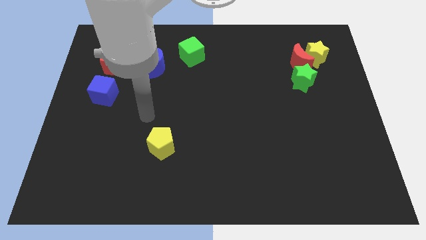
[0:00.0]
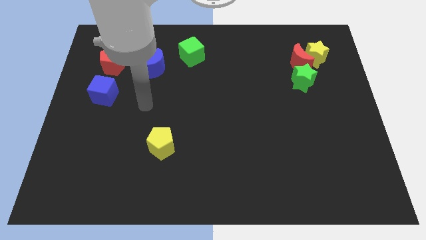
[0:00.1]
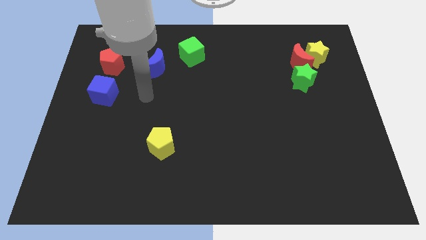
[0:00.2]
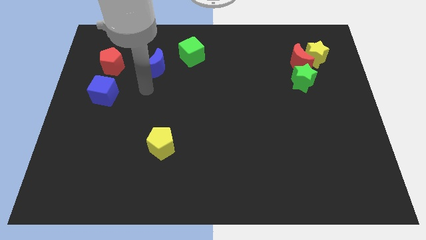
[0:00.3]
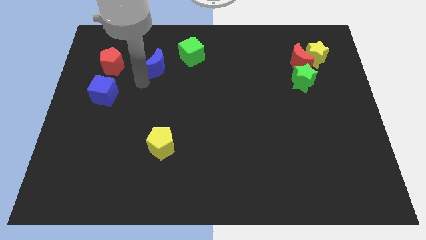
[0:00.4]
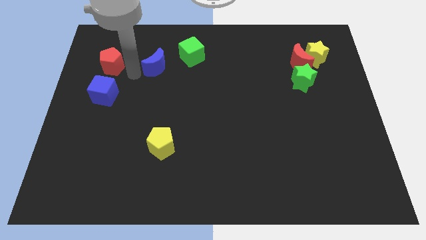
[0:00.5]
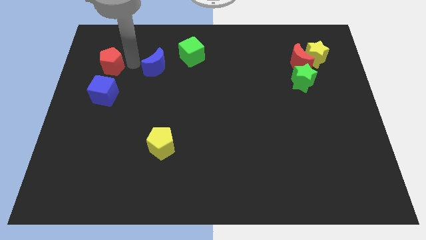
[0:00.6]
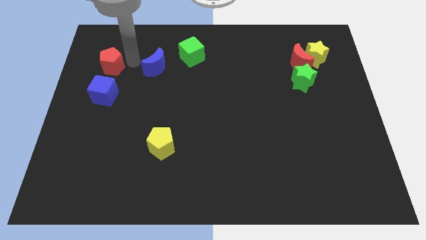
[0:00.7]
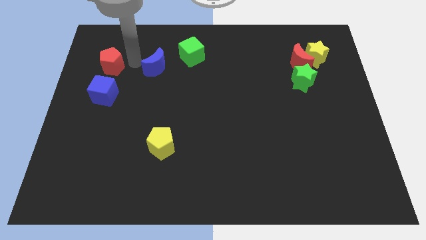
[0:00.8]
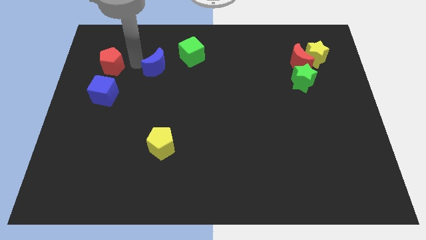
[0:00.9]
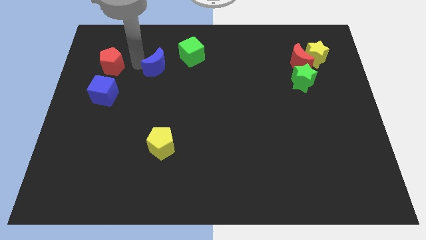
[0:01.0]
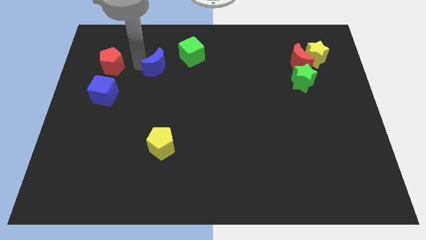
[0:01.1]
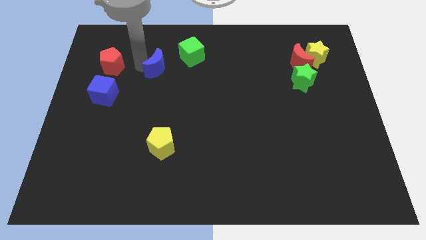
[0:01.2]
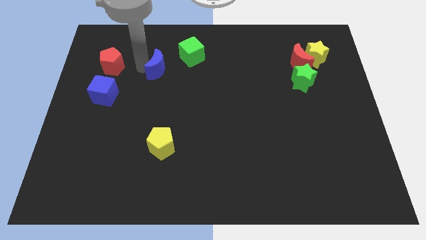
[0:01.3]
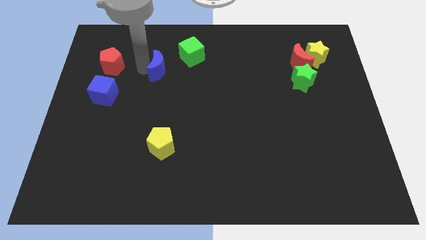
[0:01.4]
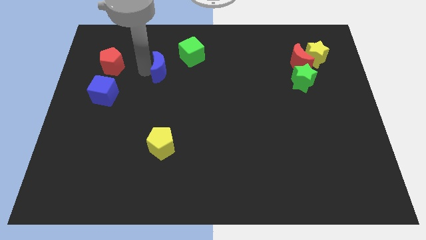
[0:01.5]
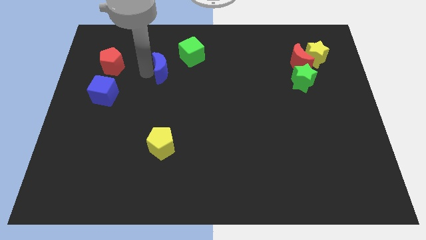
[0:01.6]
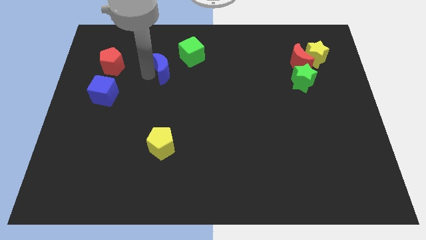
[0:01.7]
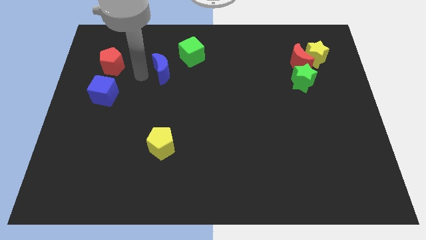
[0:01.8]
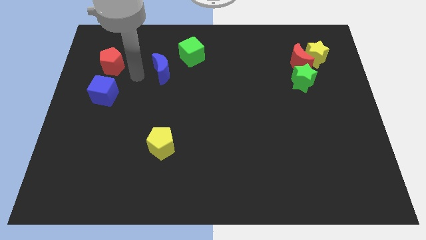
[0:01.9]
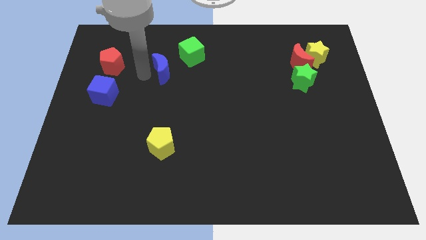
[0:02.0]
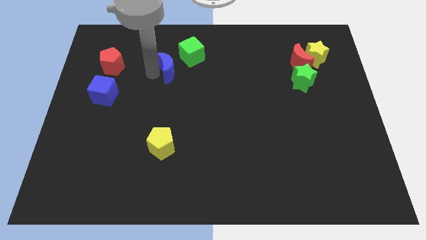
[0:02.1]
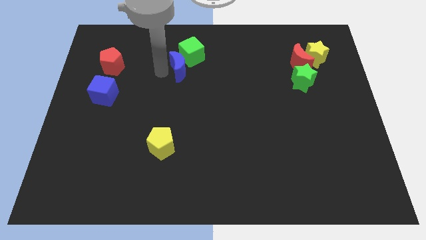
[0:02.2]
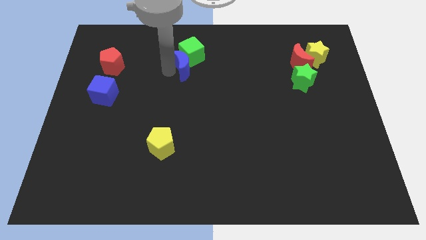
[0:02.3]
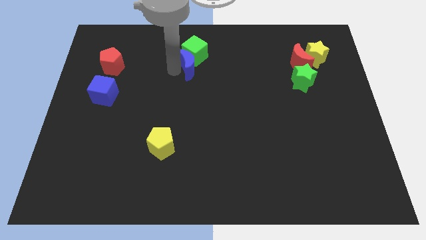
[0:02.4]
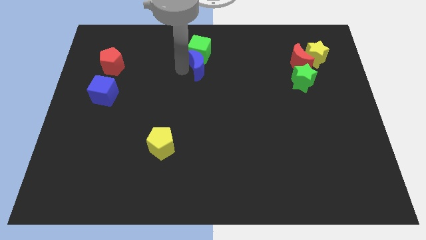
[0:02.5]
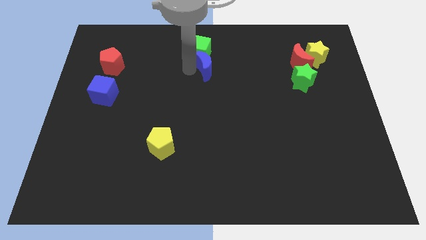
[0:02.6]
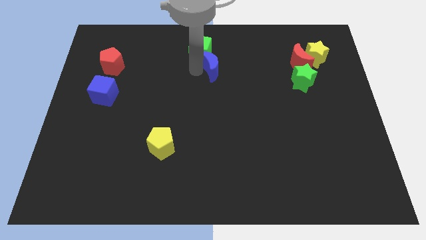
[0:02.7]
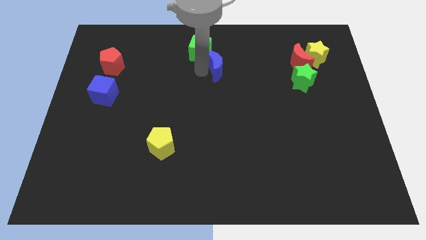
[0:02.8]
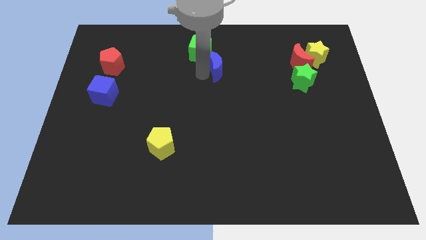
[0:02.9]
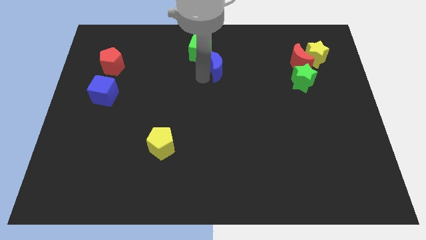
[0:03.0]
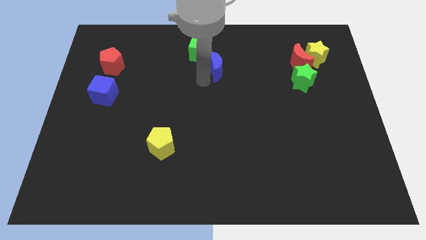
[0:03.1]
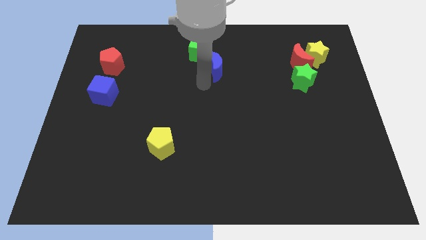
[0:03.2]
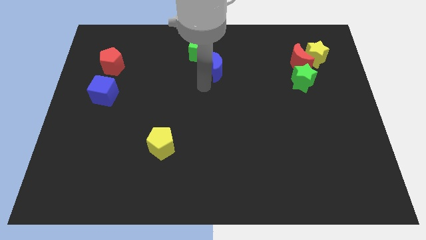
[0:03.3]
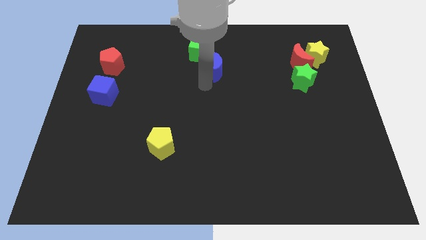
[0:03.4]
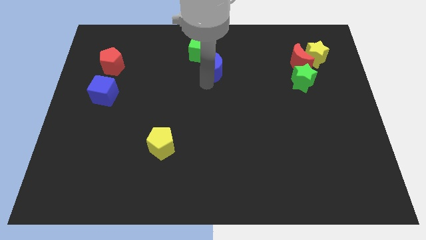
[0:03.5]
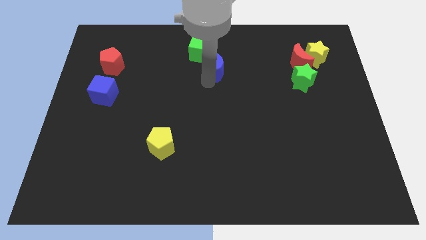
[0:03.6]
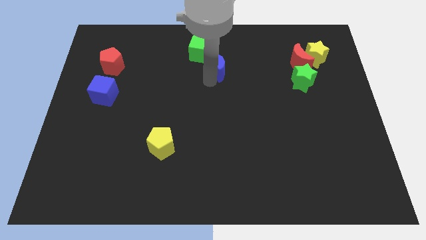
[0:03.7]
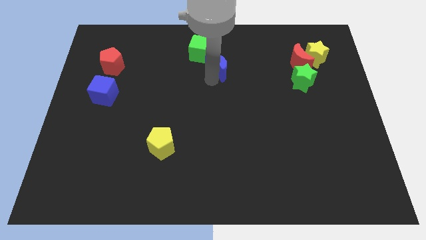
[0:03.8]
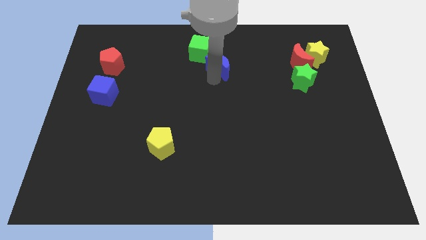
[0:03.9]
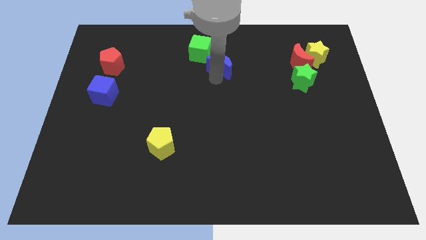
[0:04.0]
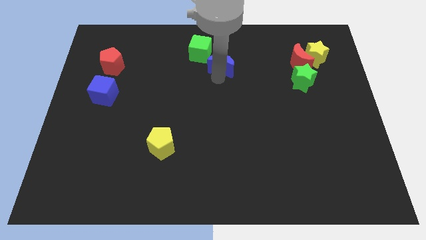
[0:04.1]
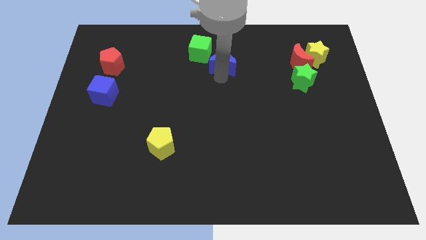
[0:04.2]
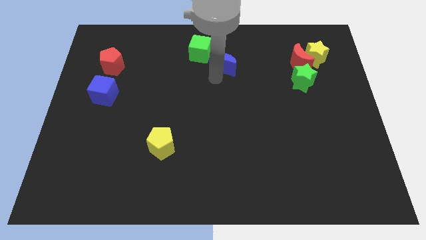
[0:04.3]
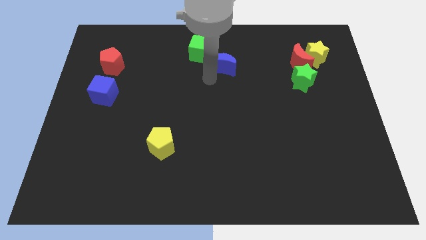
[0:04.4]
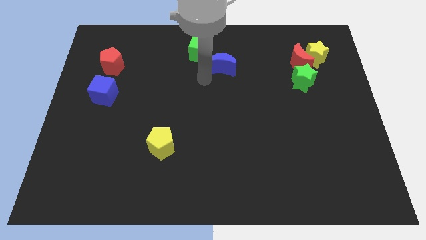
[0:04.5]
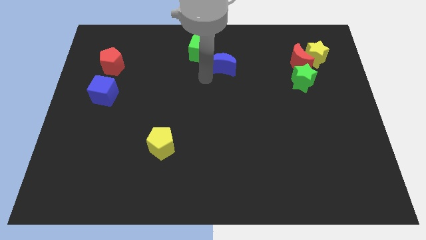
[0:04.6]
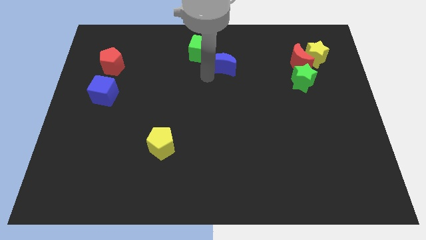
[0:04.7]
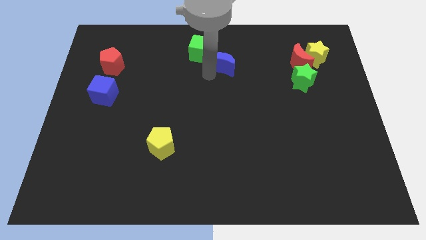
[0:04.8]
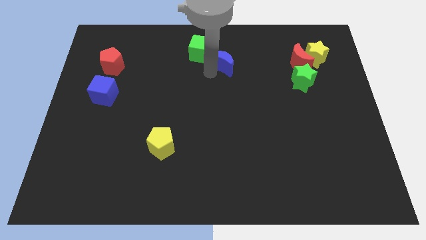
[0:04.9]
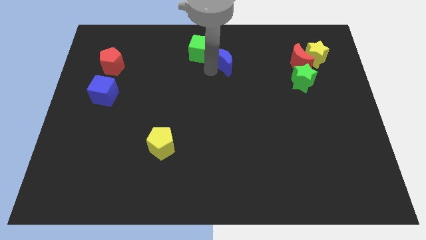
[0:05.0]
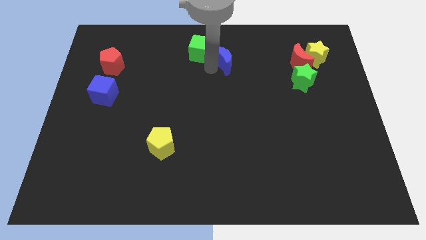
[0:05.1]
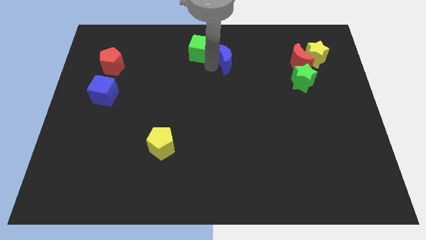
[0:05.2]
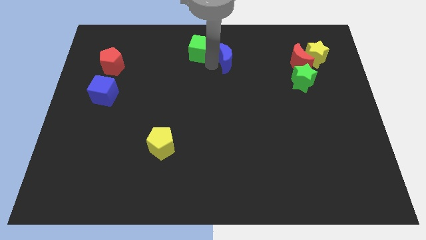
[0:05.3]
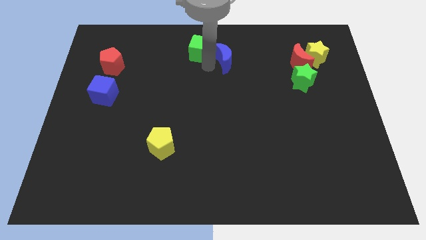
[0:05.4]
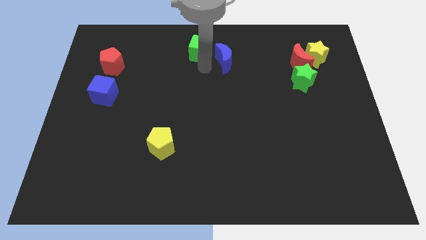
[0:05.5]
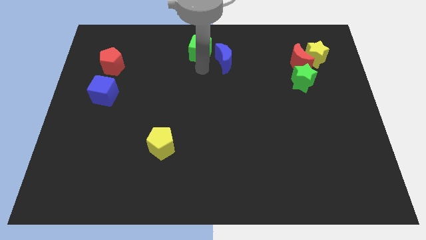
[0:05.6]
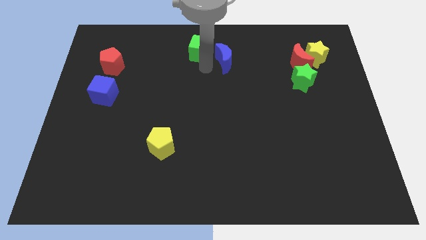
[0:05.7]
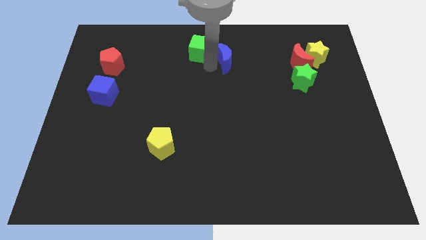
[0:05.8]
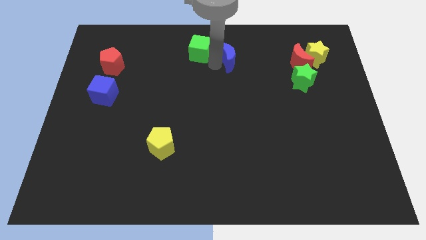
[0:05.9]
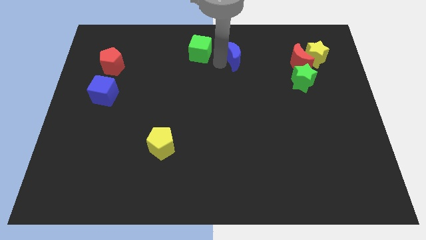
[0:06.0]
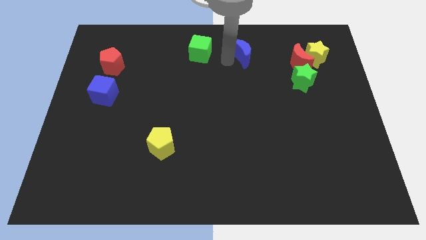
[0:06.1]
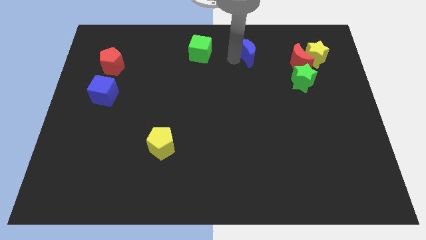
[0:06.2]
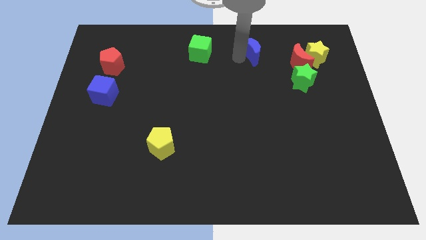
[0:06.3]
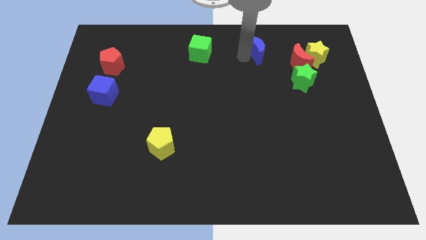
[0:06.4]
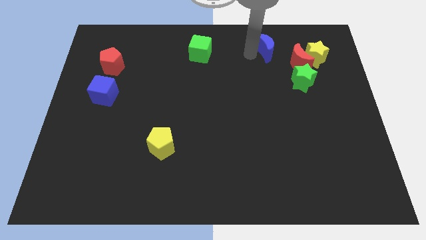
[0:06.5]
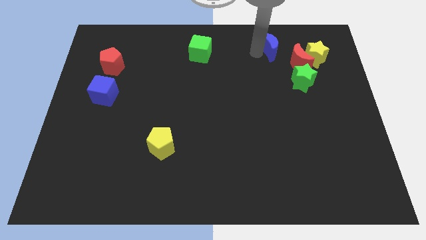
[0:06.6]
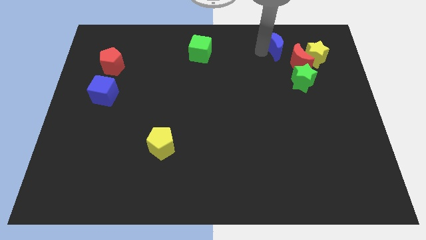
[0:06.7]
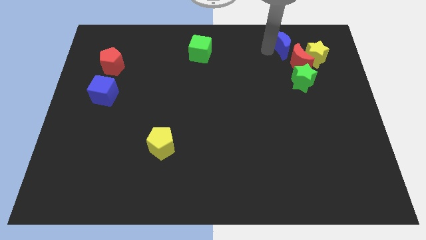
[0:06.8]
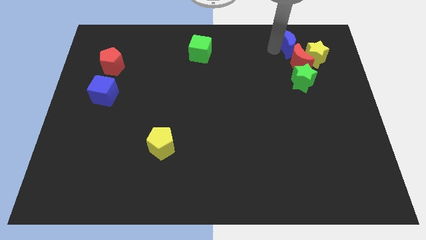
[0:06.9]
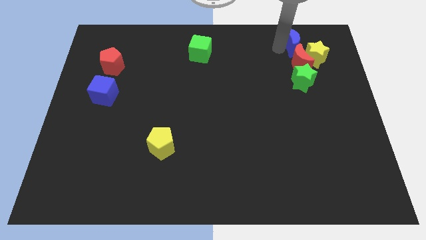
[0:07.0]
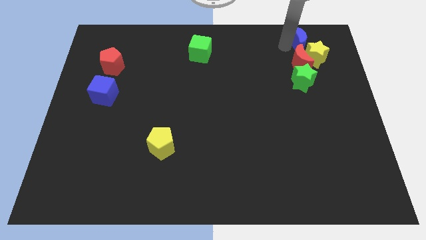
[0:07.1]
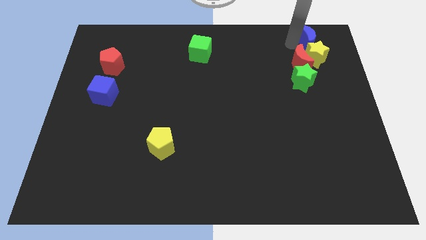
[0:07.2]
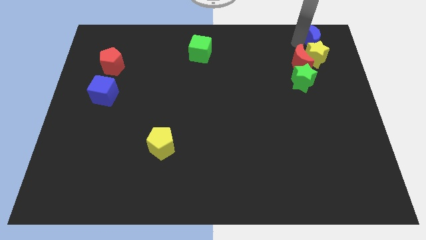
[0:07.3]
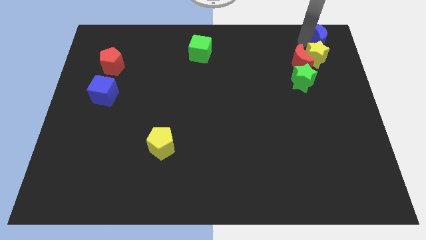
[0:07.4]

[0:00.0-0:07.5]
slide the blue moon to the top right

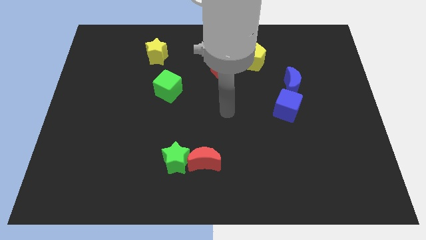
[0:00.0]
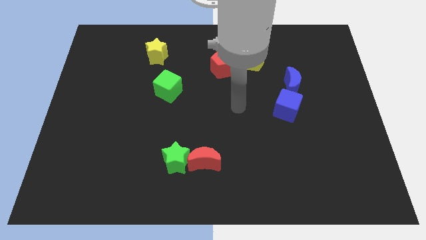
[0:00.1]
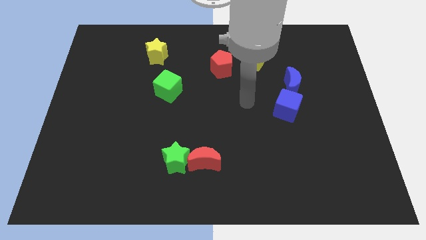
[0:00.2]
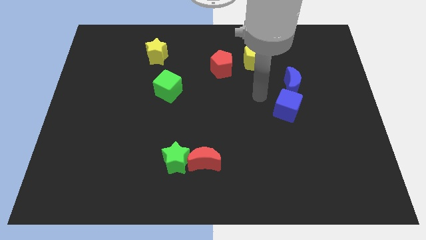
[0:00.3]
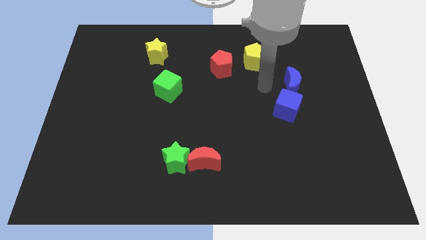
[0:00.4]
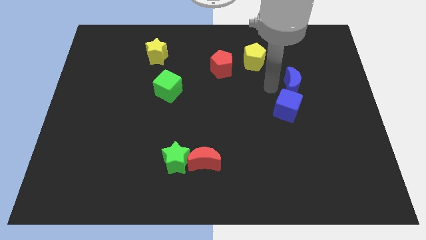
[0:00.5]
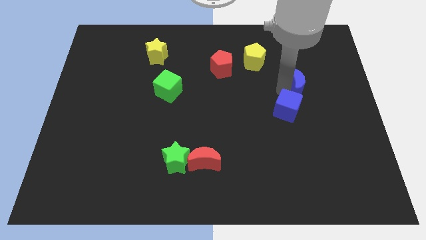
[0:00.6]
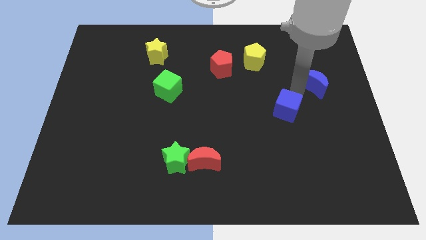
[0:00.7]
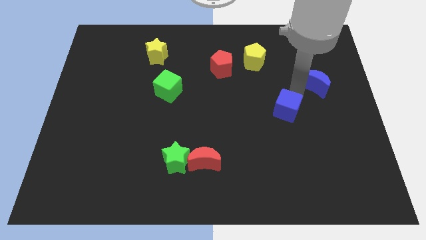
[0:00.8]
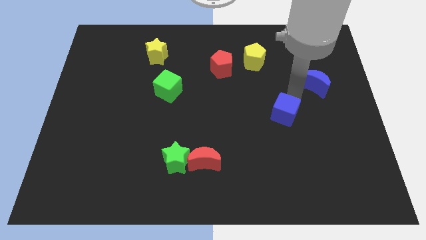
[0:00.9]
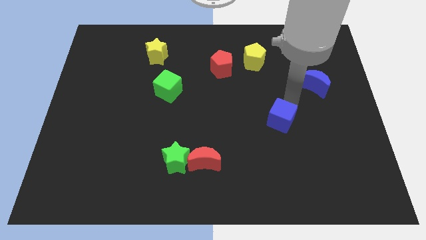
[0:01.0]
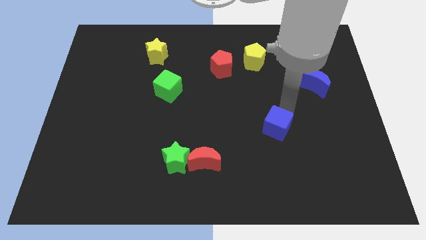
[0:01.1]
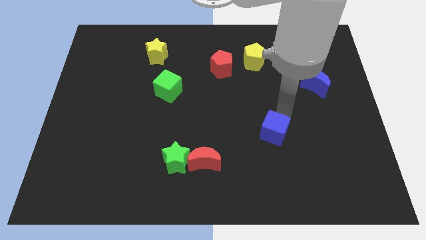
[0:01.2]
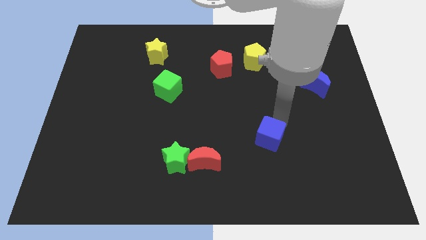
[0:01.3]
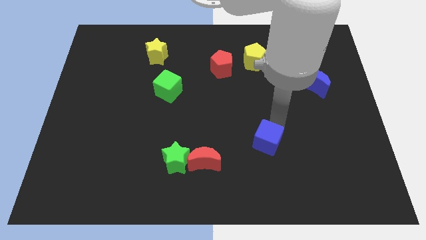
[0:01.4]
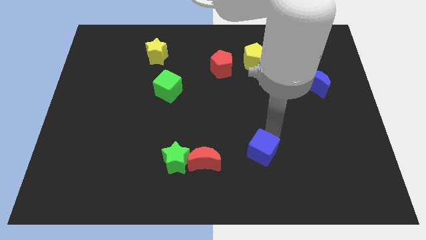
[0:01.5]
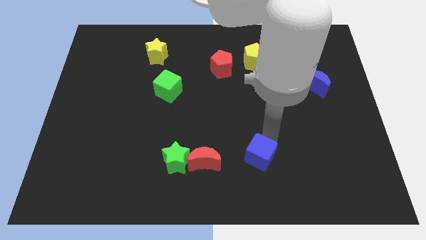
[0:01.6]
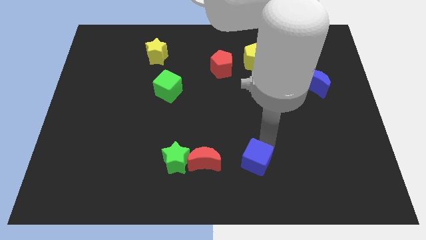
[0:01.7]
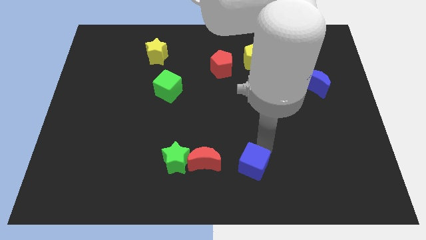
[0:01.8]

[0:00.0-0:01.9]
move the blue cube to the bottom
